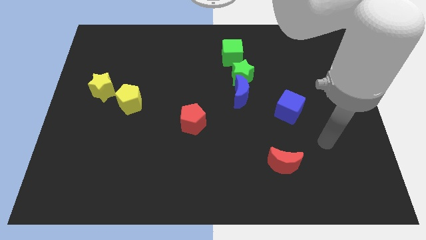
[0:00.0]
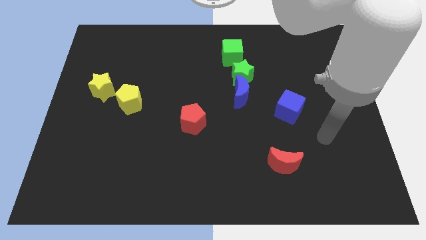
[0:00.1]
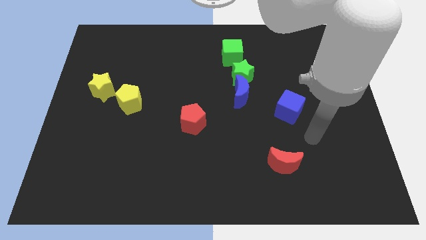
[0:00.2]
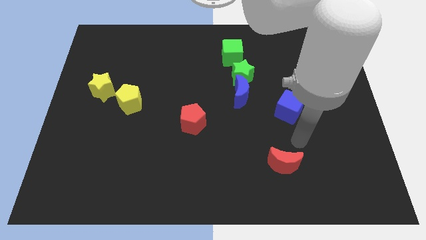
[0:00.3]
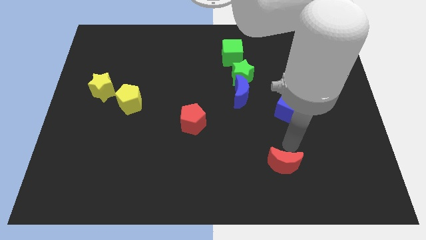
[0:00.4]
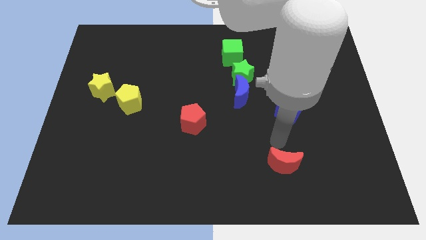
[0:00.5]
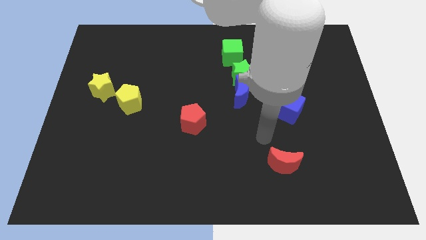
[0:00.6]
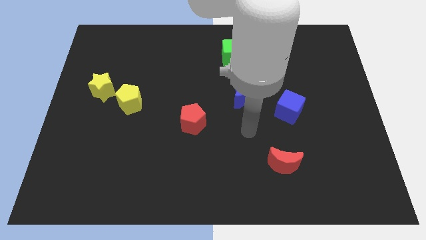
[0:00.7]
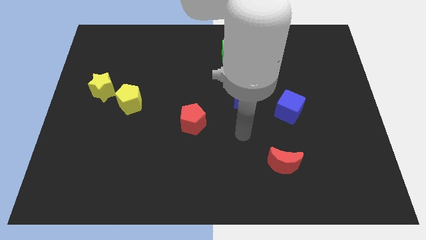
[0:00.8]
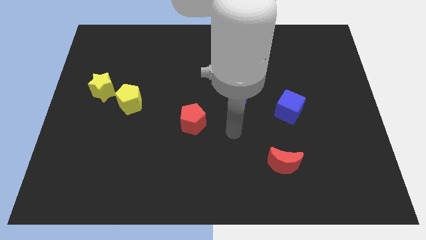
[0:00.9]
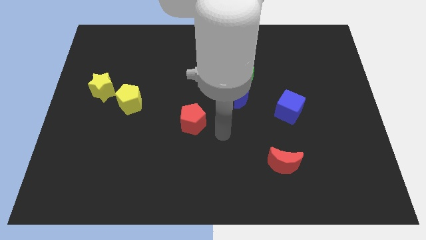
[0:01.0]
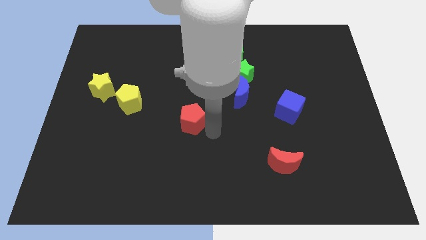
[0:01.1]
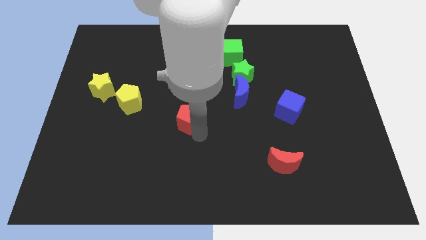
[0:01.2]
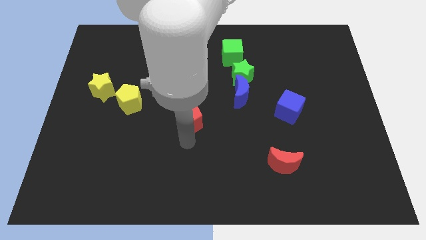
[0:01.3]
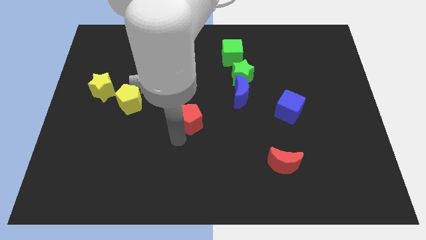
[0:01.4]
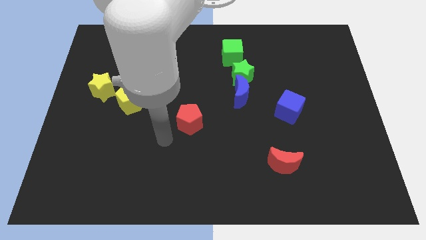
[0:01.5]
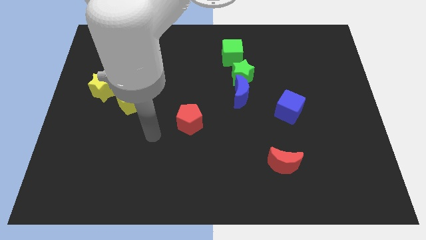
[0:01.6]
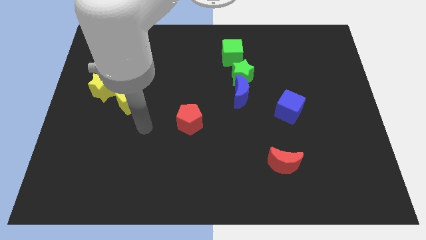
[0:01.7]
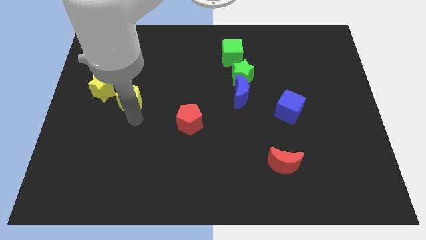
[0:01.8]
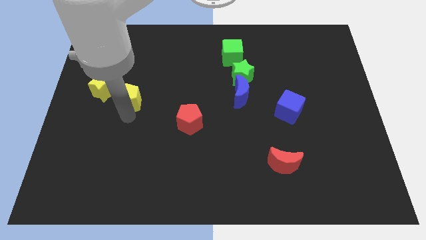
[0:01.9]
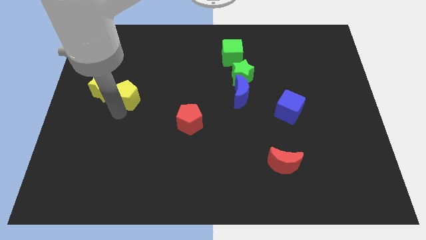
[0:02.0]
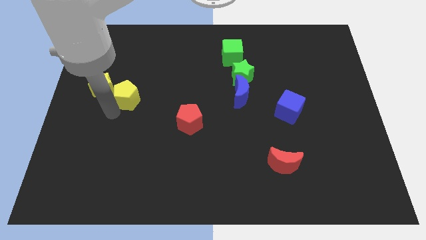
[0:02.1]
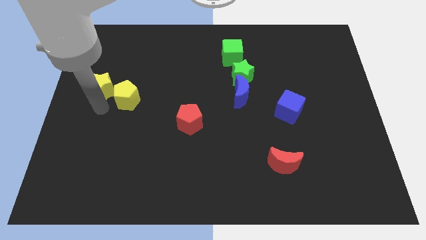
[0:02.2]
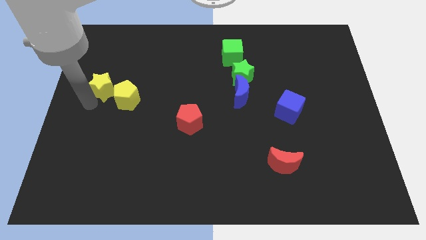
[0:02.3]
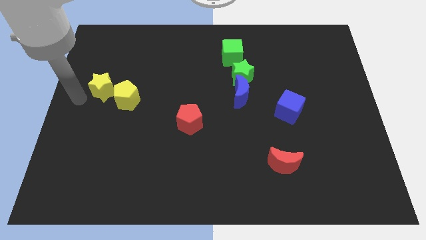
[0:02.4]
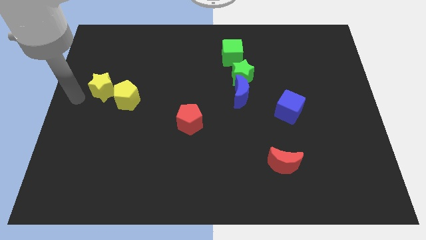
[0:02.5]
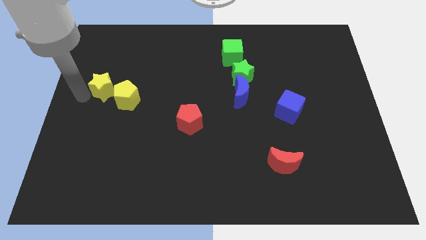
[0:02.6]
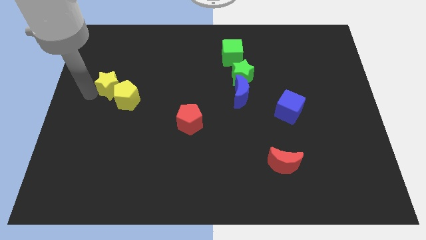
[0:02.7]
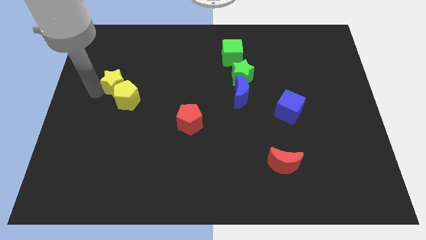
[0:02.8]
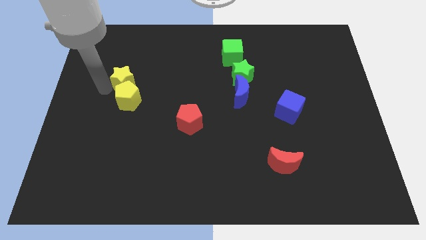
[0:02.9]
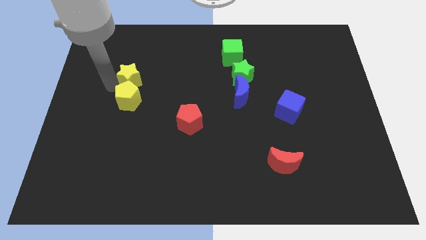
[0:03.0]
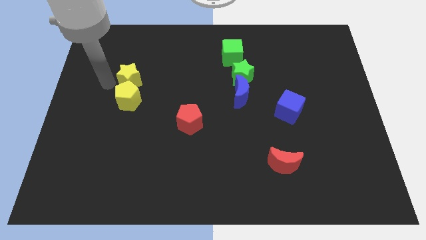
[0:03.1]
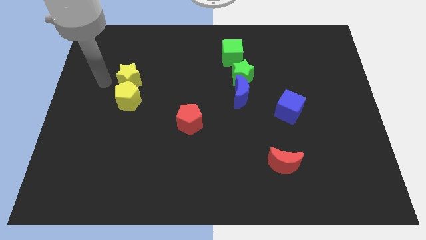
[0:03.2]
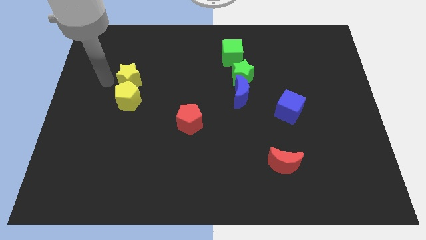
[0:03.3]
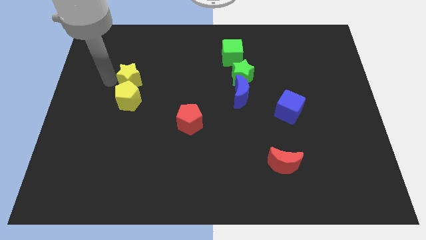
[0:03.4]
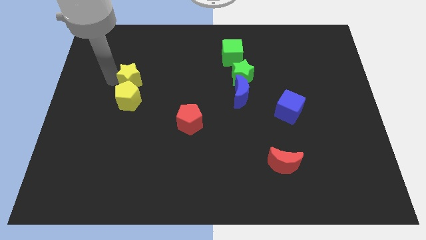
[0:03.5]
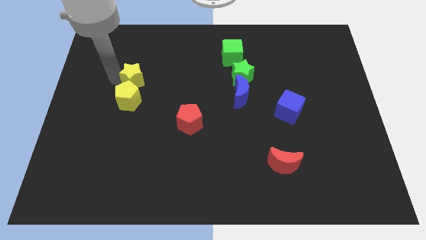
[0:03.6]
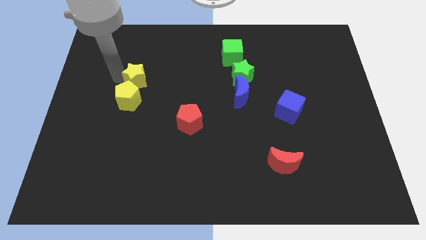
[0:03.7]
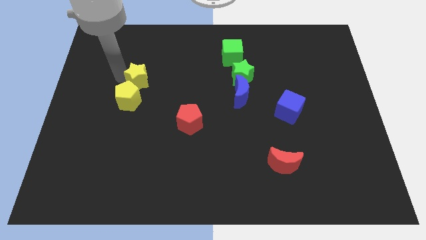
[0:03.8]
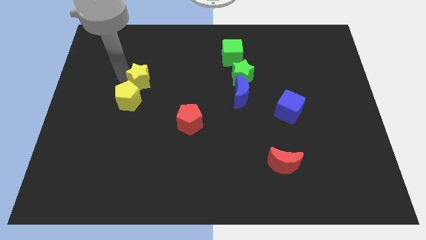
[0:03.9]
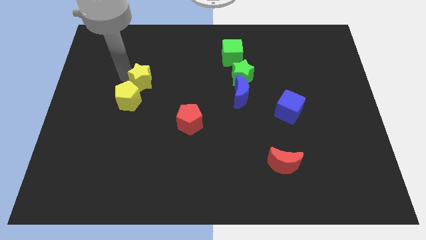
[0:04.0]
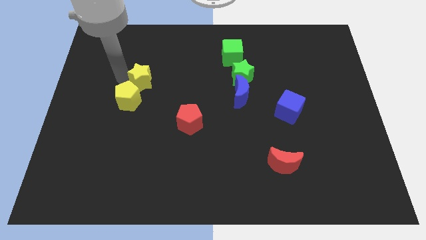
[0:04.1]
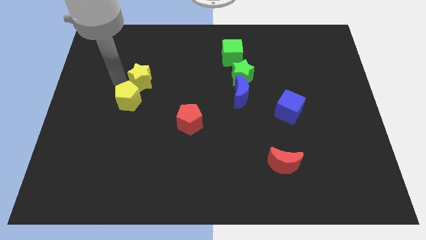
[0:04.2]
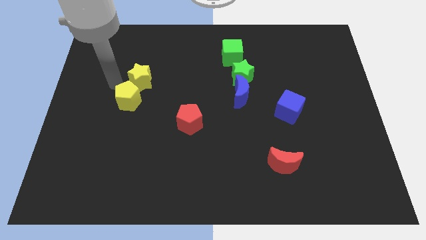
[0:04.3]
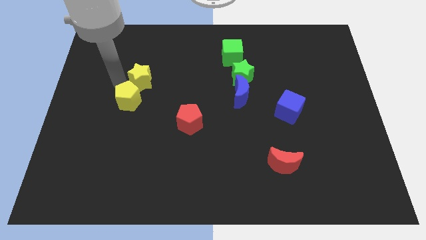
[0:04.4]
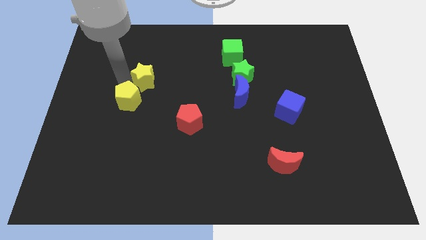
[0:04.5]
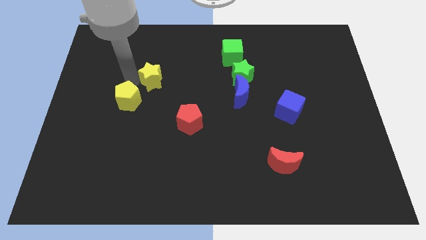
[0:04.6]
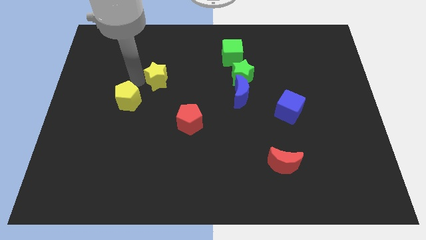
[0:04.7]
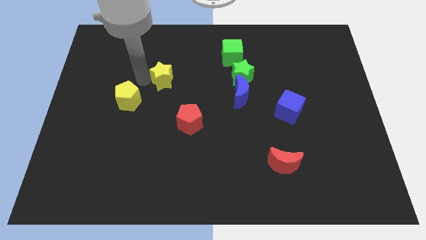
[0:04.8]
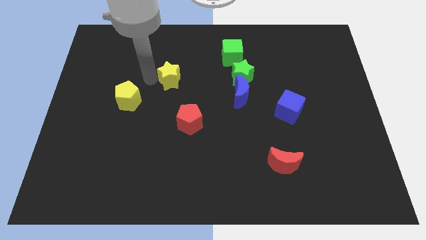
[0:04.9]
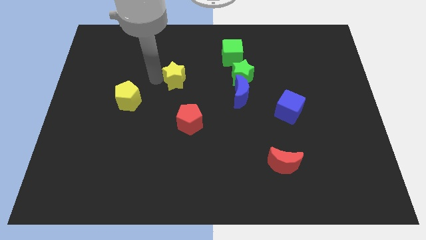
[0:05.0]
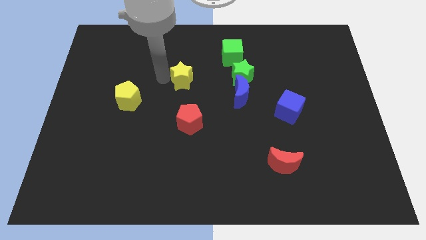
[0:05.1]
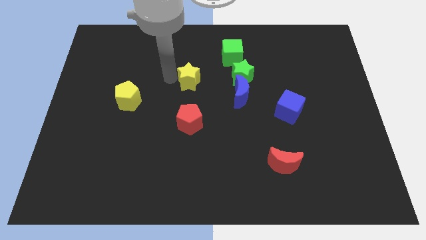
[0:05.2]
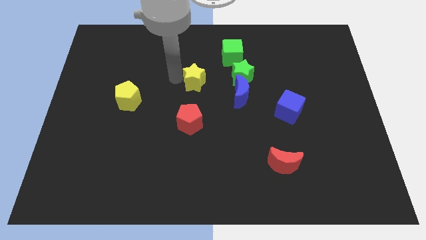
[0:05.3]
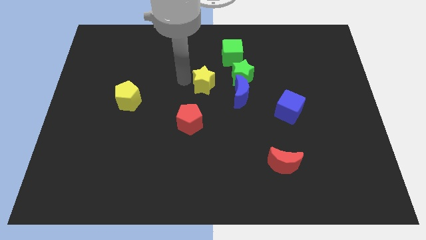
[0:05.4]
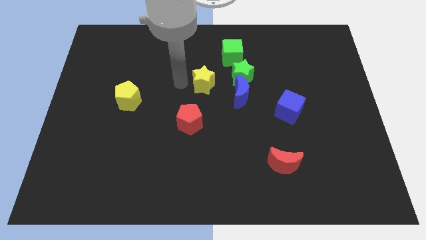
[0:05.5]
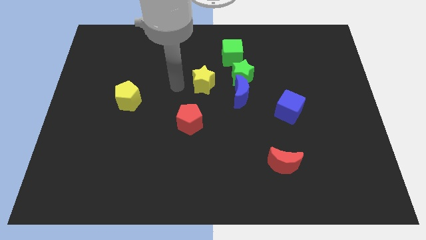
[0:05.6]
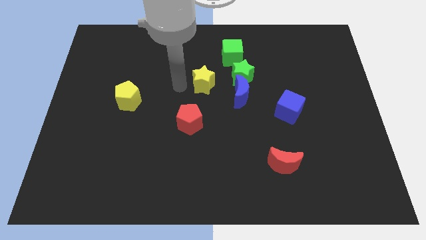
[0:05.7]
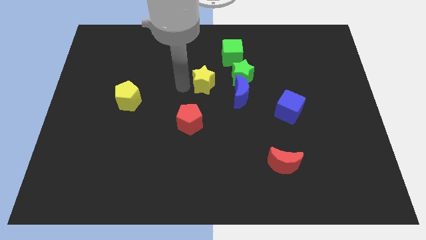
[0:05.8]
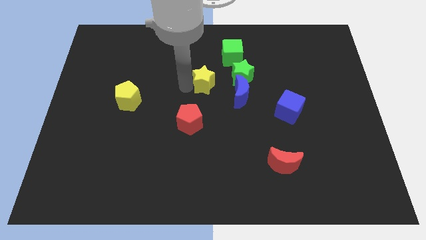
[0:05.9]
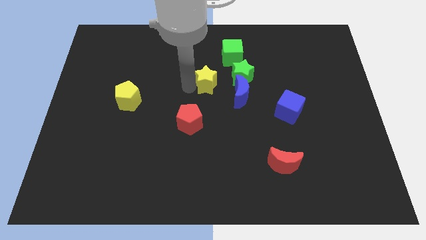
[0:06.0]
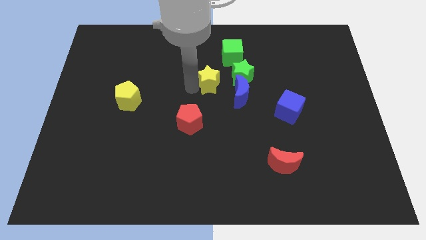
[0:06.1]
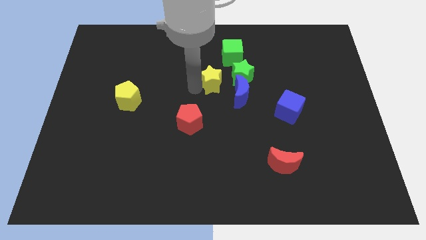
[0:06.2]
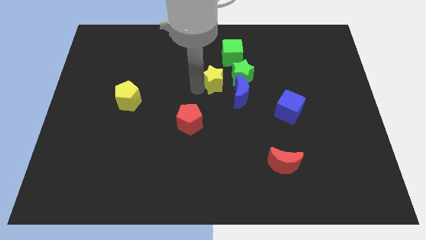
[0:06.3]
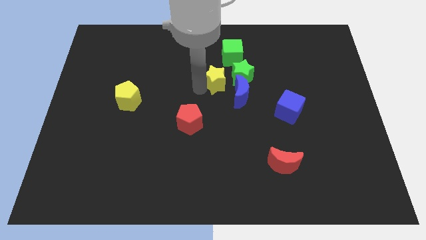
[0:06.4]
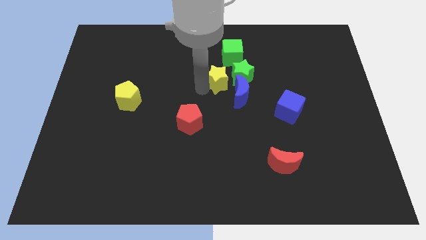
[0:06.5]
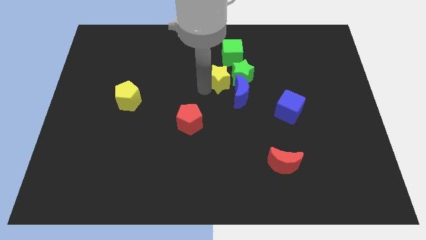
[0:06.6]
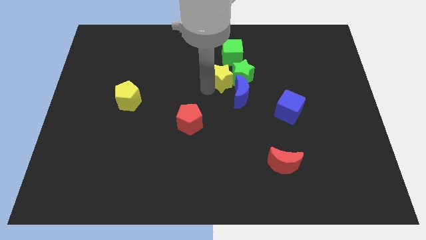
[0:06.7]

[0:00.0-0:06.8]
push the yellow star to the green star

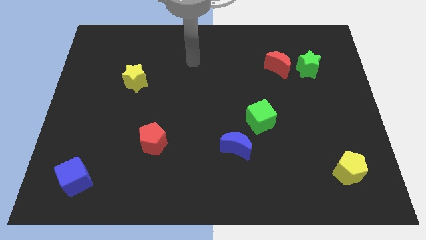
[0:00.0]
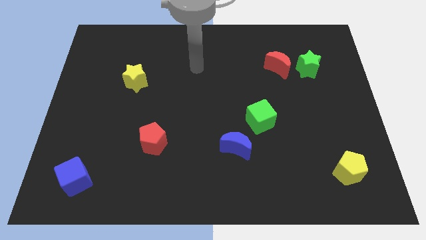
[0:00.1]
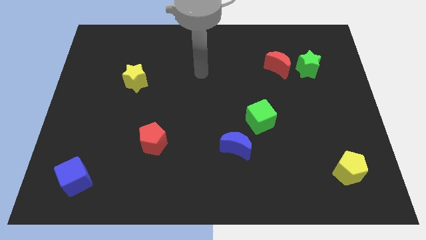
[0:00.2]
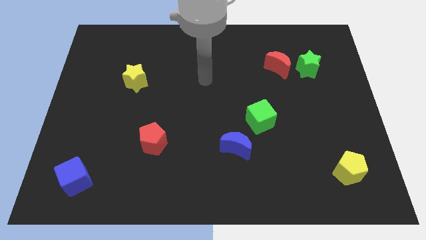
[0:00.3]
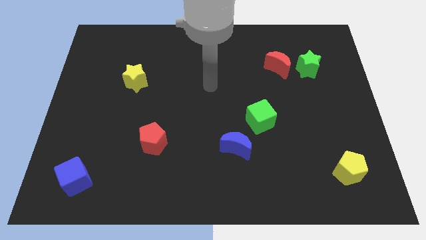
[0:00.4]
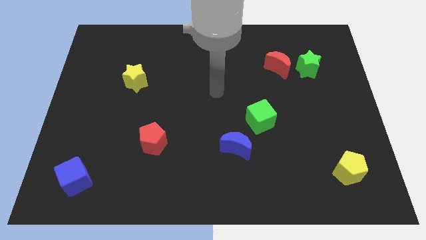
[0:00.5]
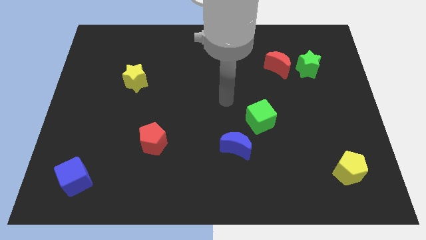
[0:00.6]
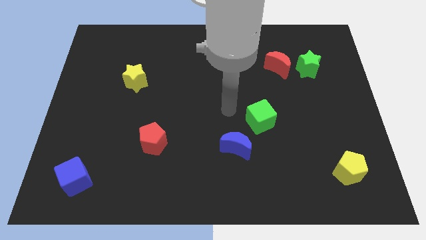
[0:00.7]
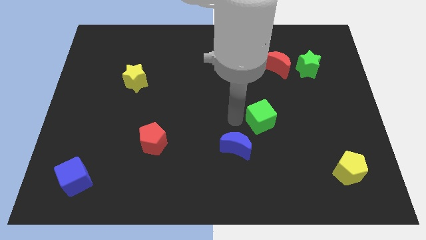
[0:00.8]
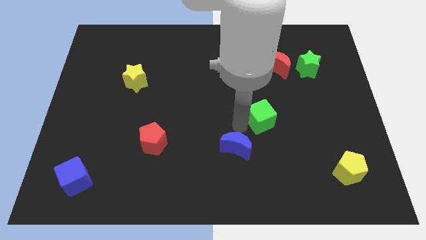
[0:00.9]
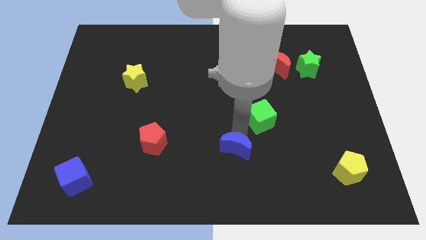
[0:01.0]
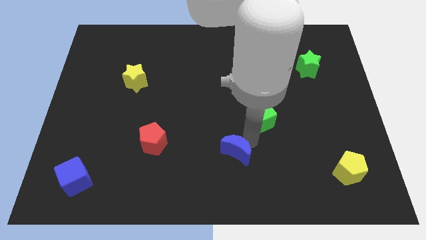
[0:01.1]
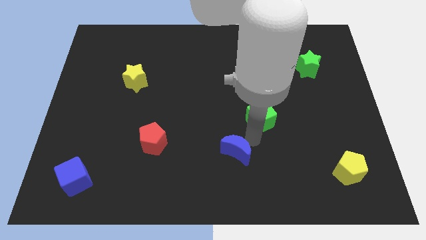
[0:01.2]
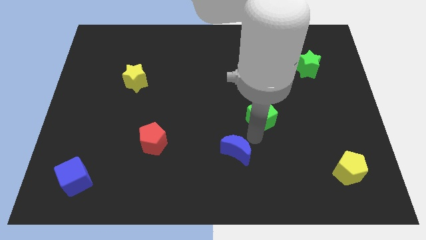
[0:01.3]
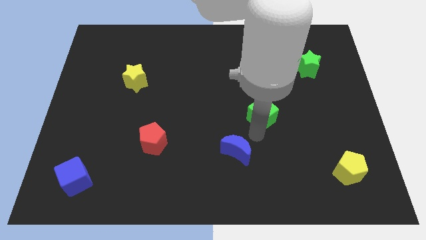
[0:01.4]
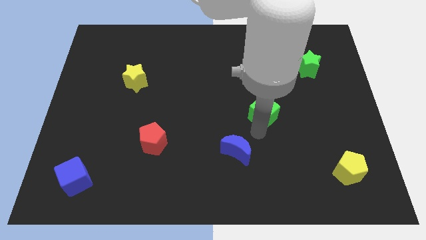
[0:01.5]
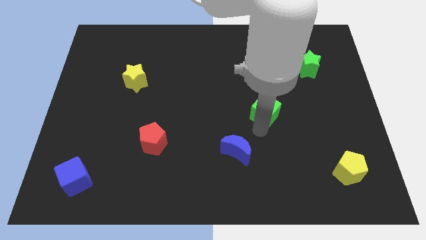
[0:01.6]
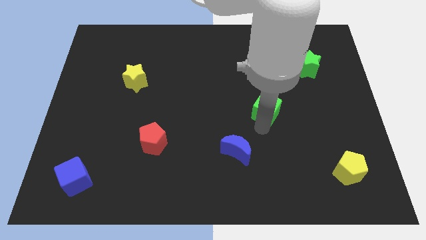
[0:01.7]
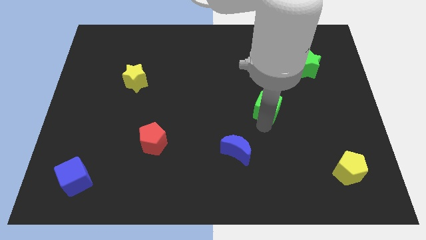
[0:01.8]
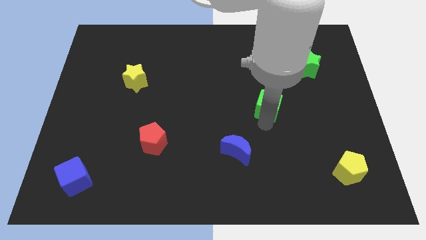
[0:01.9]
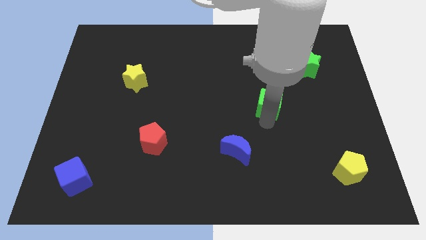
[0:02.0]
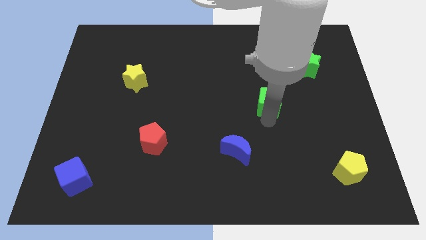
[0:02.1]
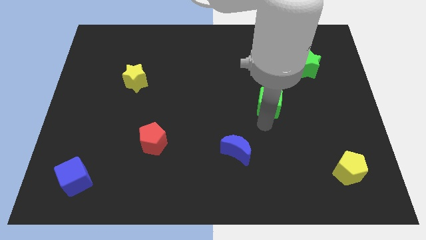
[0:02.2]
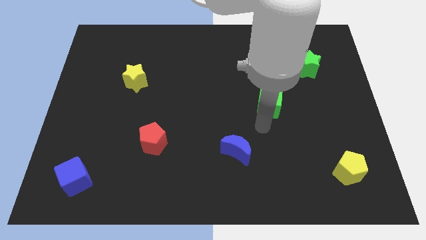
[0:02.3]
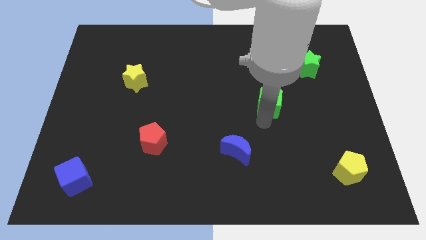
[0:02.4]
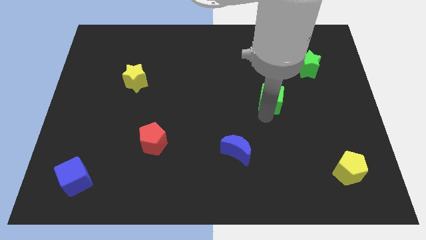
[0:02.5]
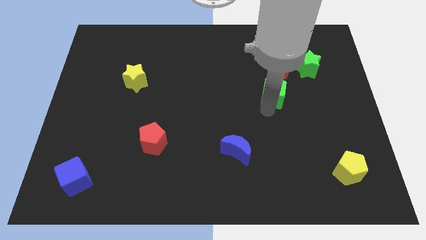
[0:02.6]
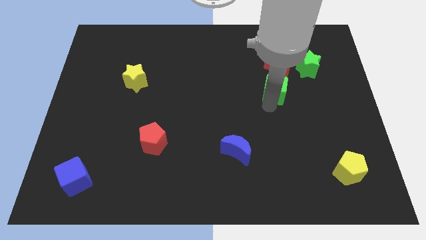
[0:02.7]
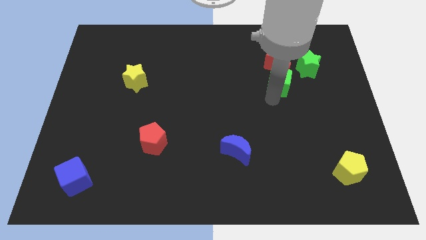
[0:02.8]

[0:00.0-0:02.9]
push the green cube to the red moon
